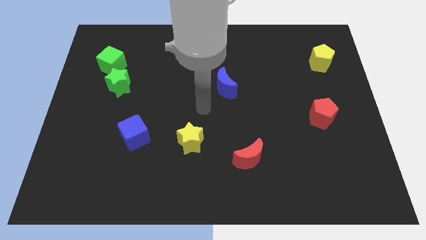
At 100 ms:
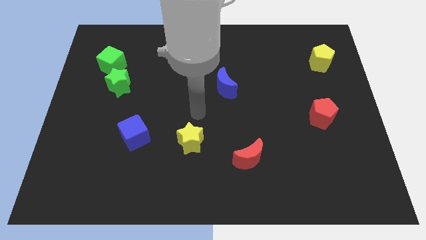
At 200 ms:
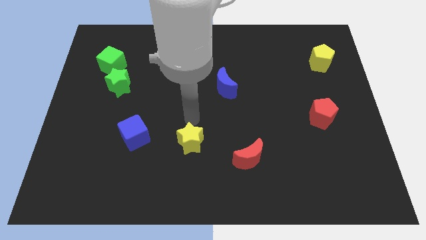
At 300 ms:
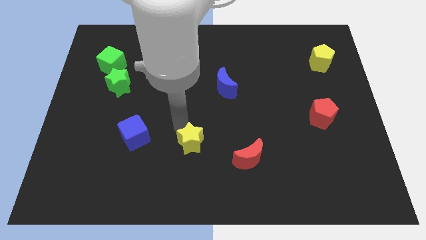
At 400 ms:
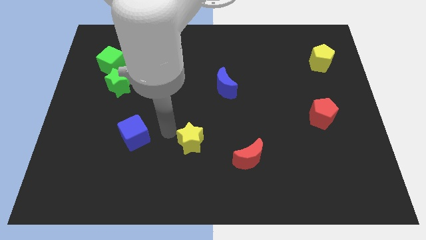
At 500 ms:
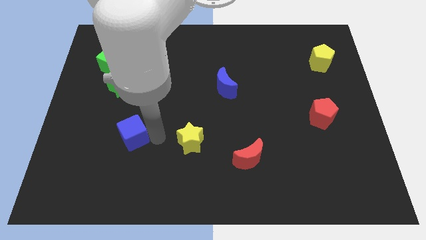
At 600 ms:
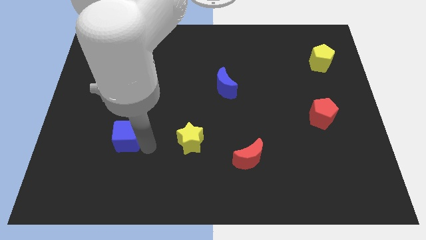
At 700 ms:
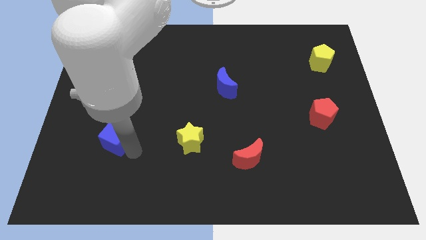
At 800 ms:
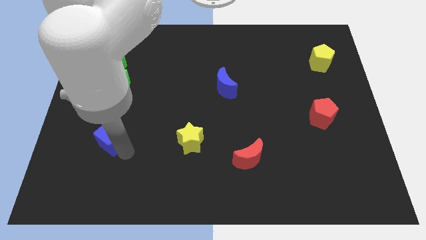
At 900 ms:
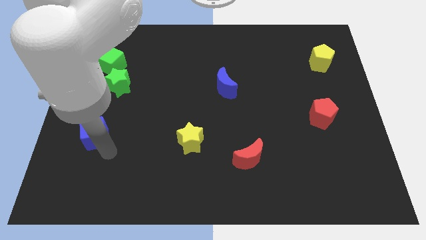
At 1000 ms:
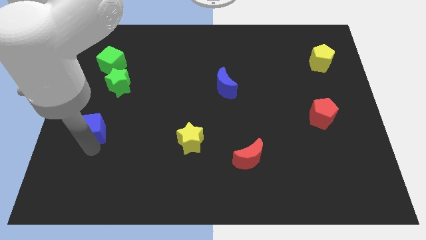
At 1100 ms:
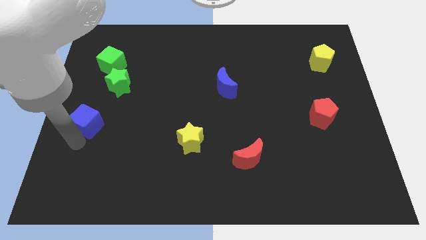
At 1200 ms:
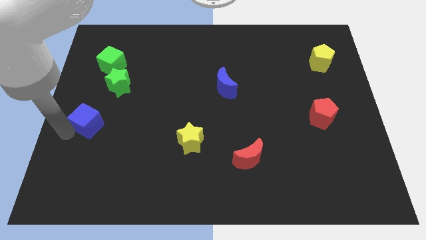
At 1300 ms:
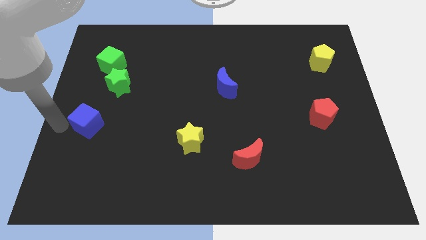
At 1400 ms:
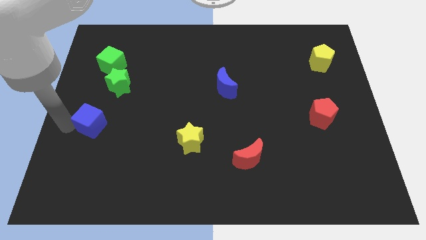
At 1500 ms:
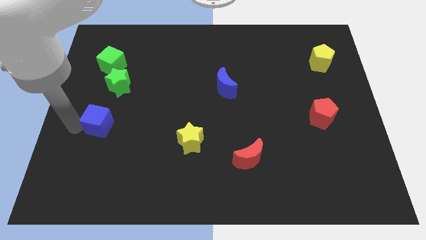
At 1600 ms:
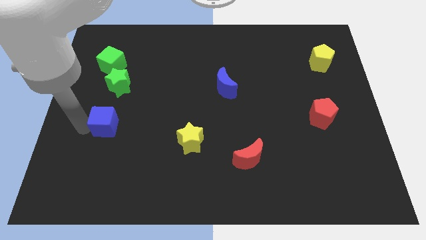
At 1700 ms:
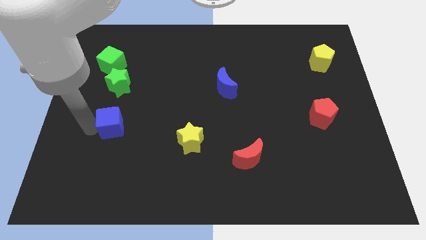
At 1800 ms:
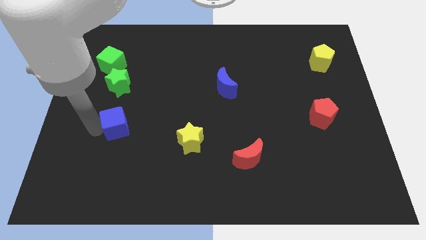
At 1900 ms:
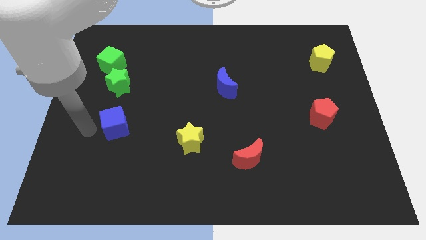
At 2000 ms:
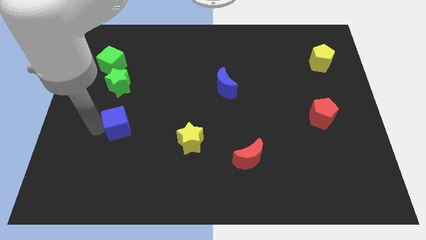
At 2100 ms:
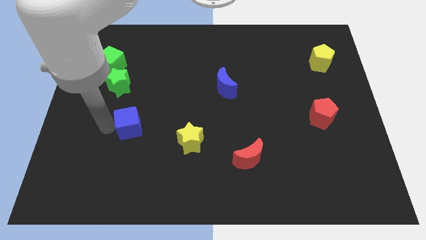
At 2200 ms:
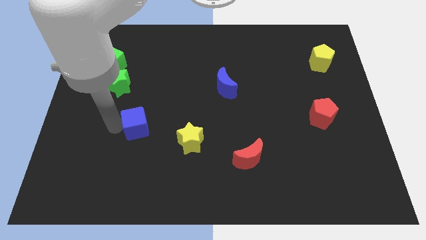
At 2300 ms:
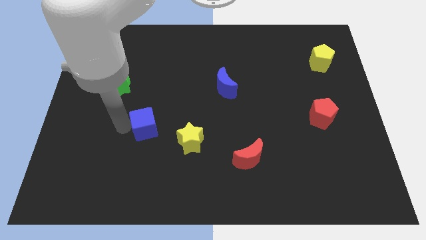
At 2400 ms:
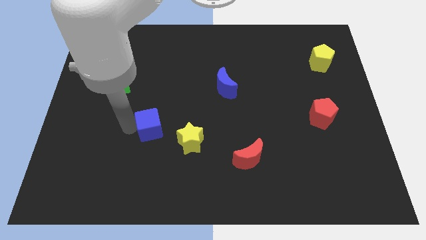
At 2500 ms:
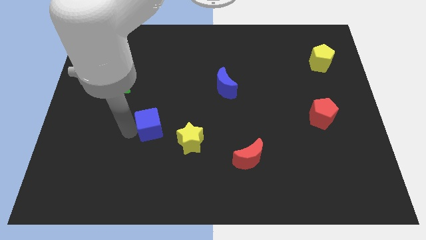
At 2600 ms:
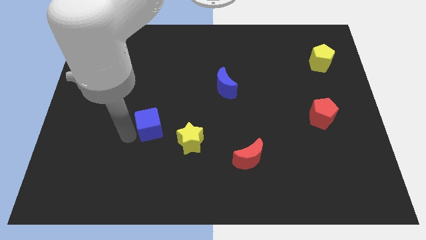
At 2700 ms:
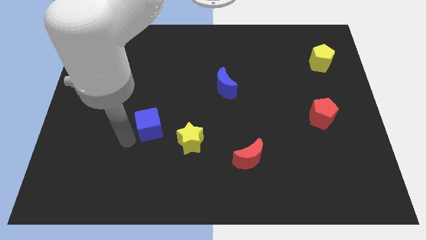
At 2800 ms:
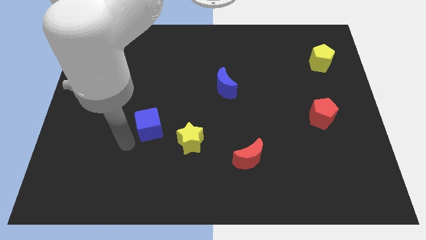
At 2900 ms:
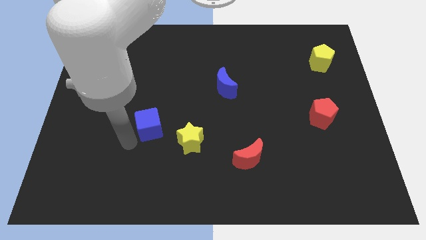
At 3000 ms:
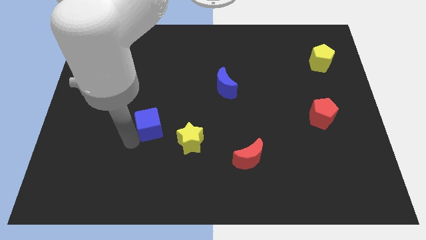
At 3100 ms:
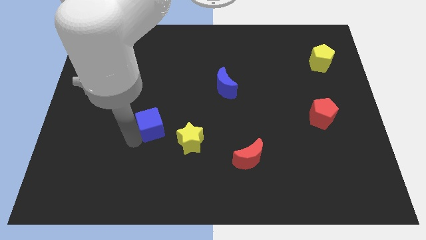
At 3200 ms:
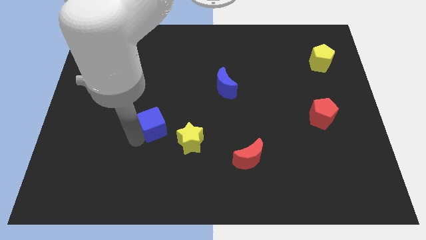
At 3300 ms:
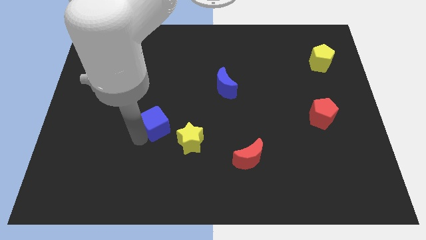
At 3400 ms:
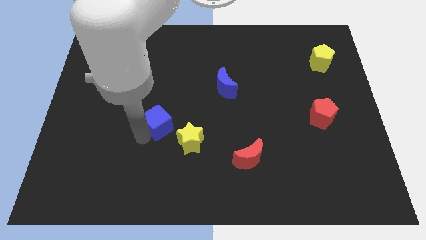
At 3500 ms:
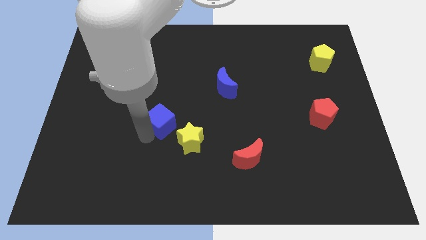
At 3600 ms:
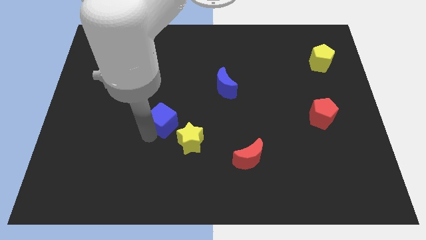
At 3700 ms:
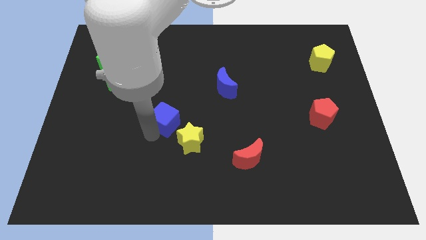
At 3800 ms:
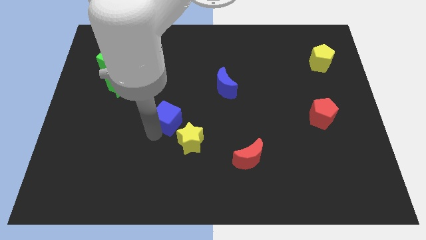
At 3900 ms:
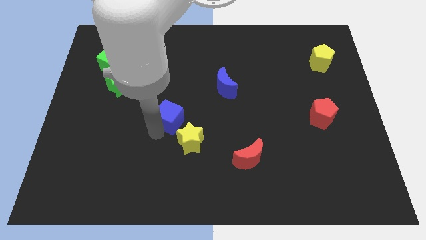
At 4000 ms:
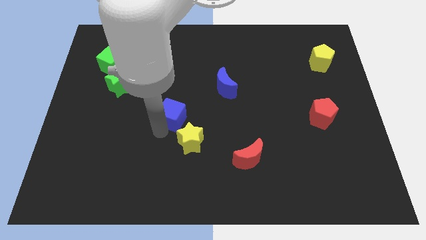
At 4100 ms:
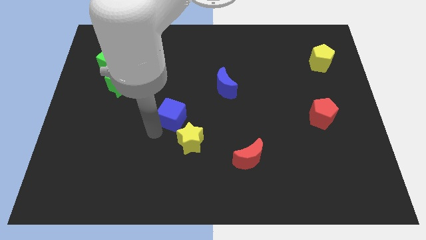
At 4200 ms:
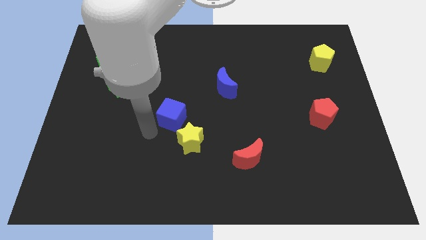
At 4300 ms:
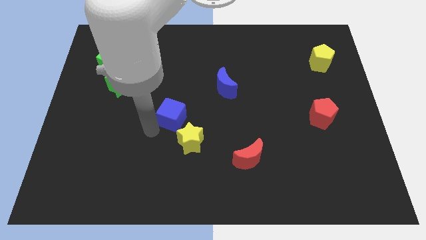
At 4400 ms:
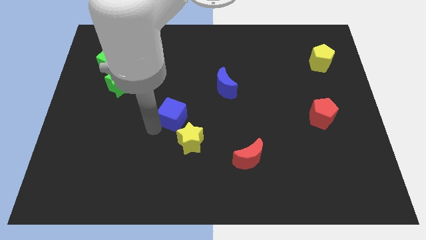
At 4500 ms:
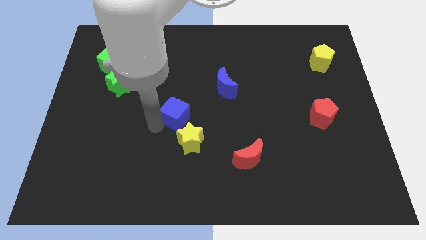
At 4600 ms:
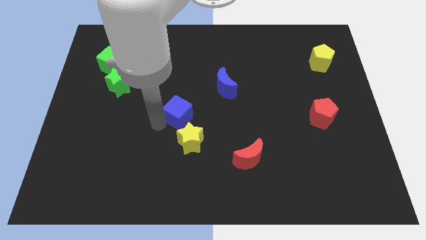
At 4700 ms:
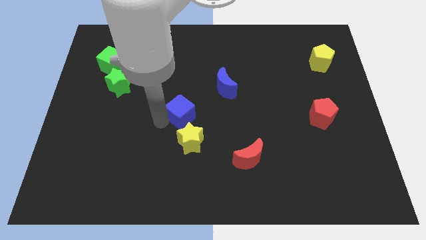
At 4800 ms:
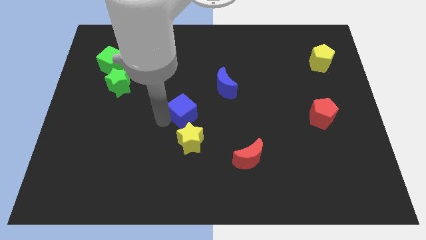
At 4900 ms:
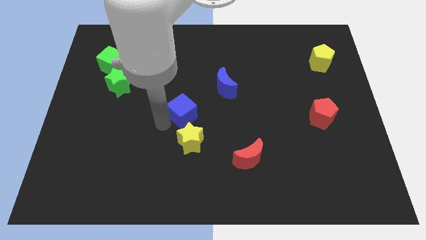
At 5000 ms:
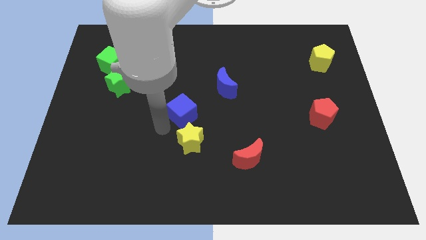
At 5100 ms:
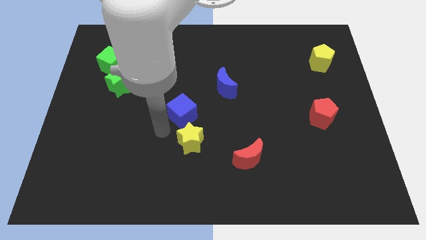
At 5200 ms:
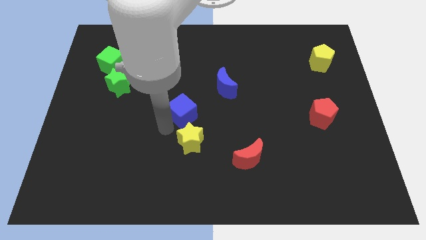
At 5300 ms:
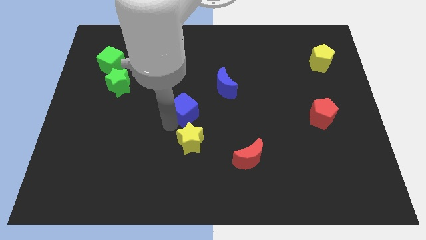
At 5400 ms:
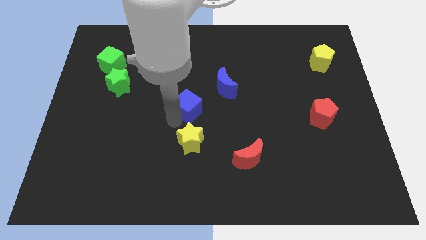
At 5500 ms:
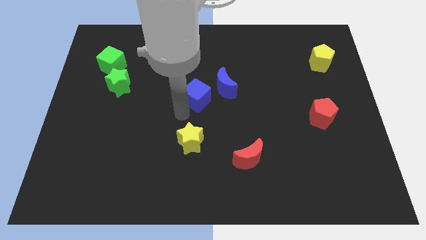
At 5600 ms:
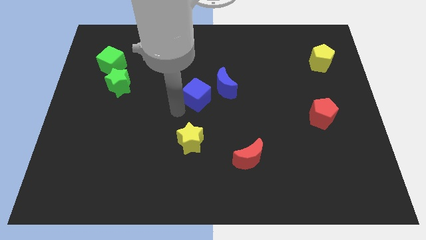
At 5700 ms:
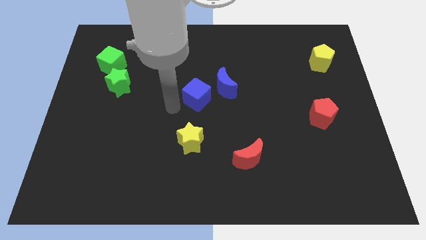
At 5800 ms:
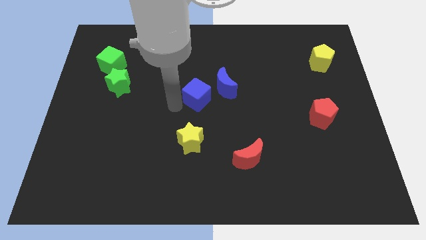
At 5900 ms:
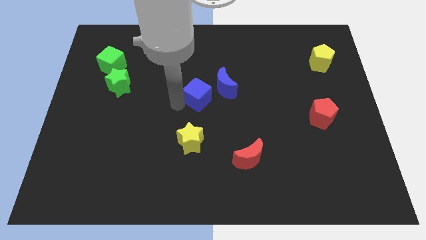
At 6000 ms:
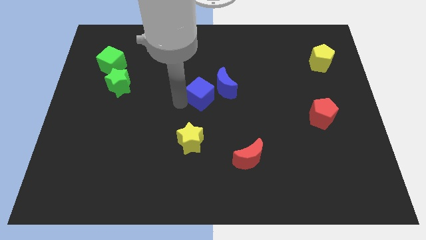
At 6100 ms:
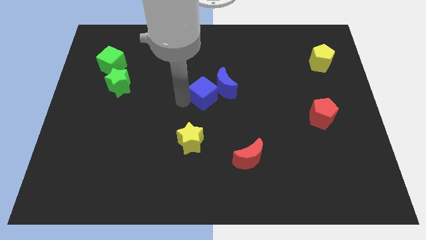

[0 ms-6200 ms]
move the blue cube towards the blue moon

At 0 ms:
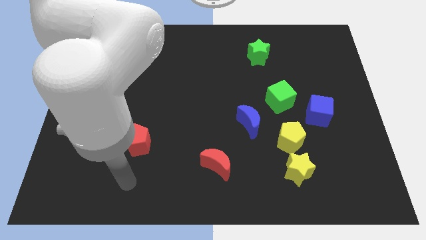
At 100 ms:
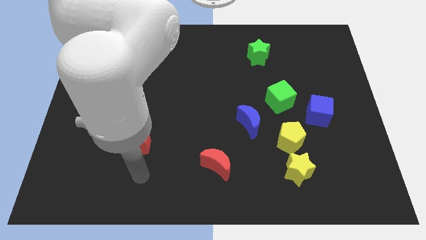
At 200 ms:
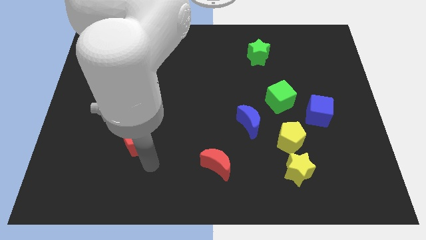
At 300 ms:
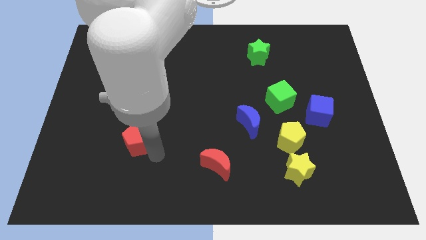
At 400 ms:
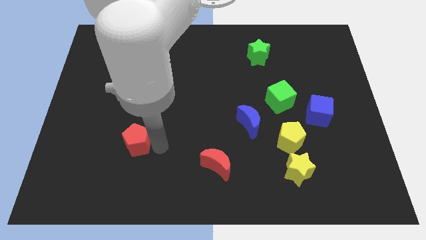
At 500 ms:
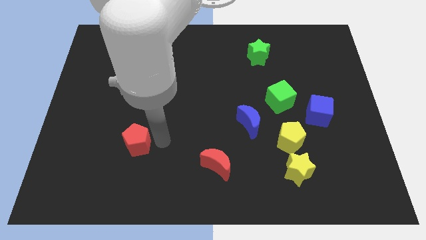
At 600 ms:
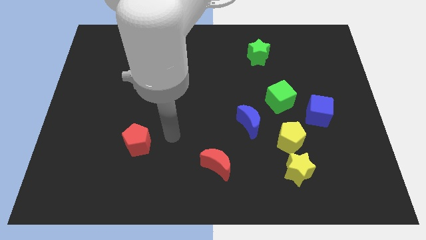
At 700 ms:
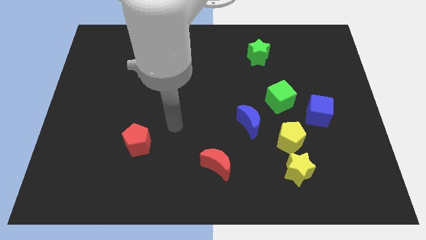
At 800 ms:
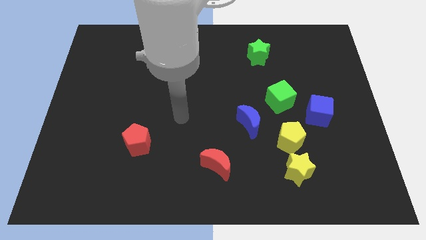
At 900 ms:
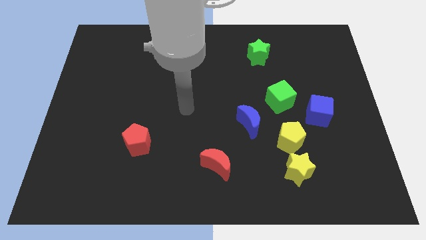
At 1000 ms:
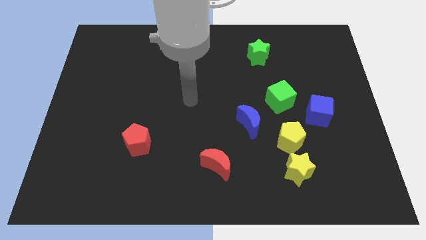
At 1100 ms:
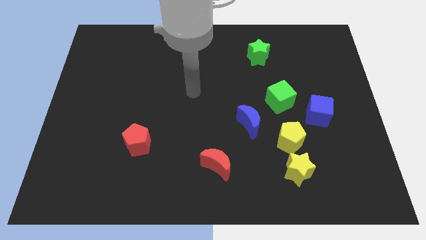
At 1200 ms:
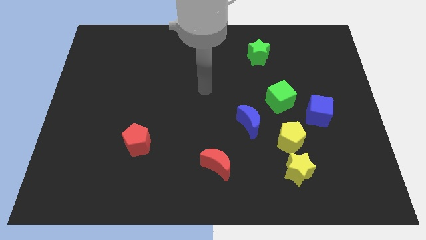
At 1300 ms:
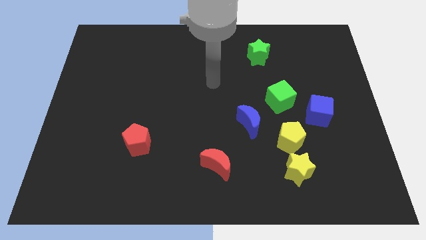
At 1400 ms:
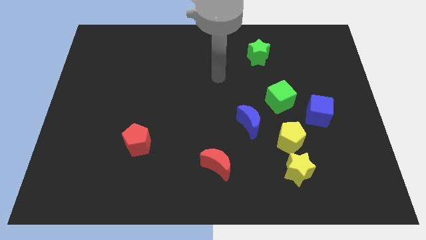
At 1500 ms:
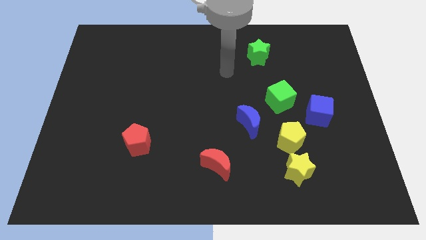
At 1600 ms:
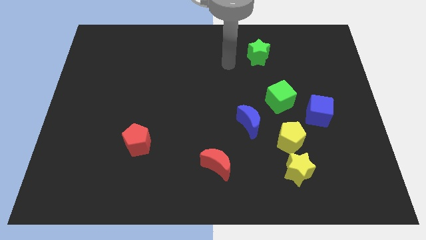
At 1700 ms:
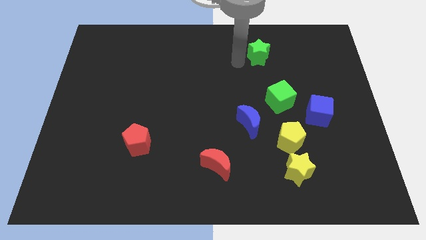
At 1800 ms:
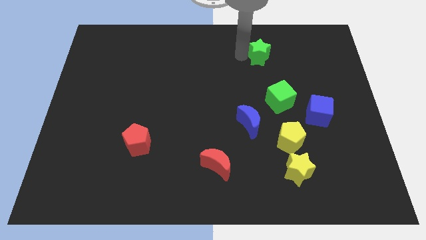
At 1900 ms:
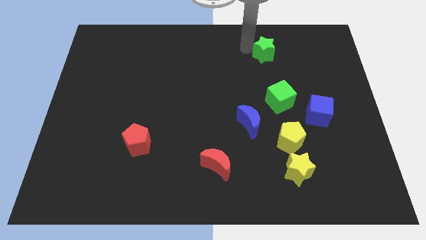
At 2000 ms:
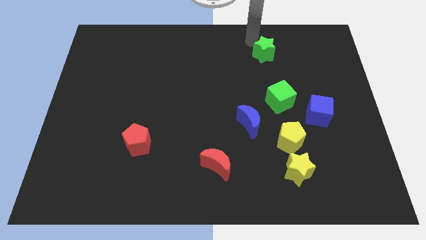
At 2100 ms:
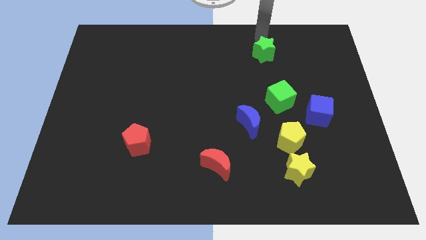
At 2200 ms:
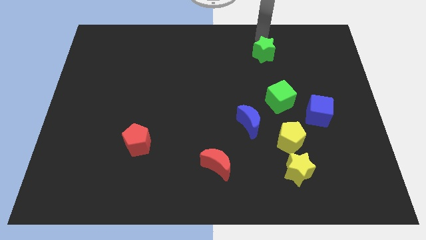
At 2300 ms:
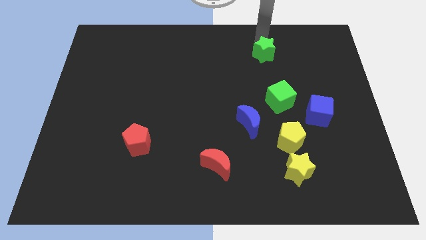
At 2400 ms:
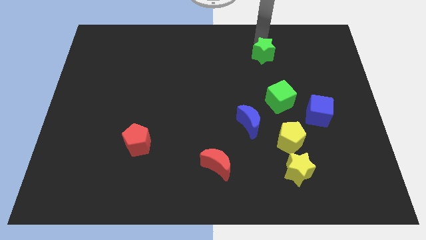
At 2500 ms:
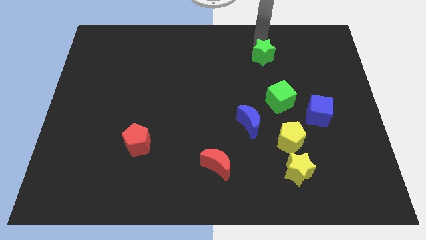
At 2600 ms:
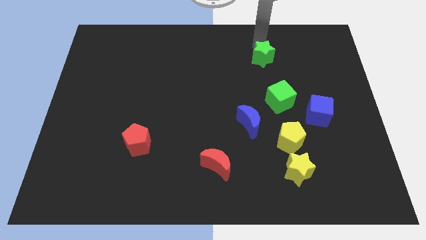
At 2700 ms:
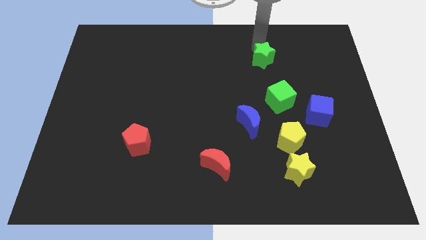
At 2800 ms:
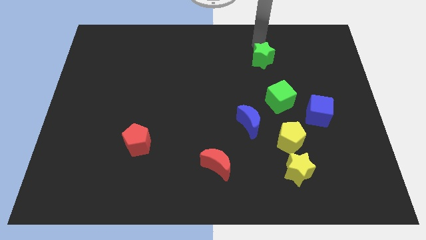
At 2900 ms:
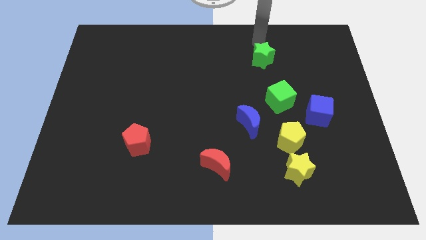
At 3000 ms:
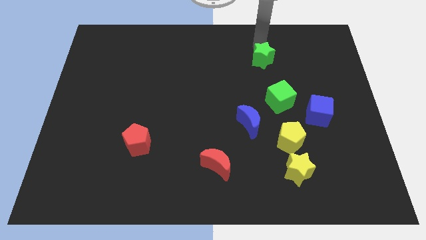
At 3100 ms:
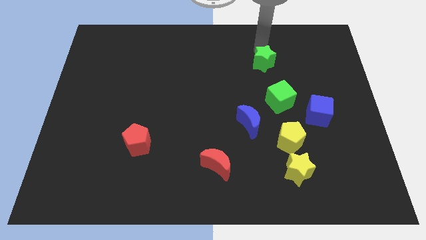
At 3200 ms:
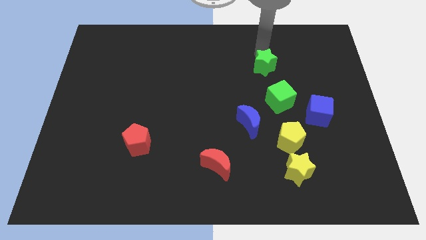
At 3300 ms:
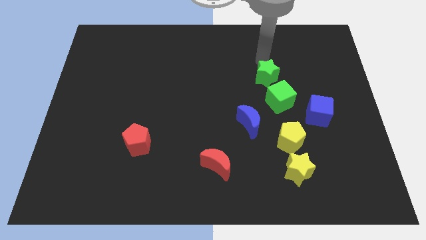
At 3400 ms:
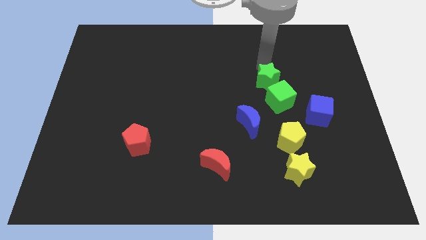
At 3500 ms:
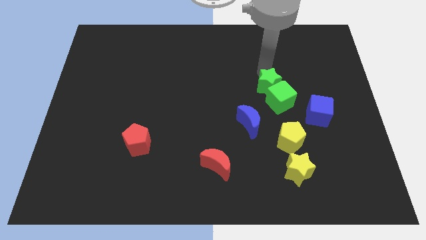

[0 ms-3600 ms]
slide the green star close to the green cube
